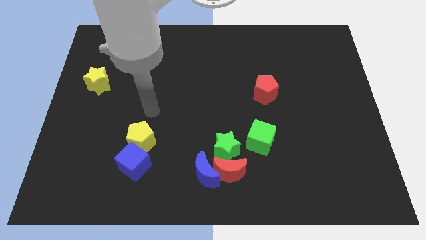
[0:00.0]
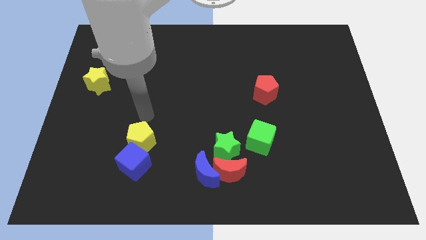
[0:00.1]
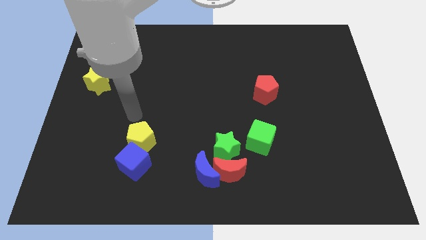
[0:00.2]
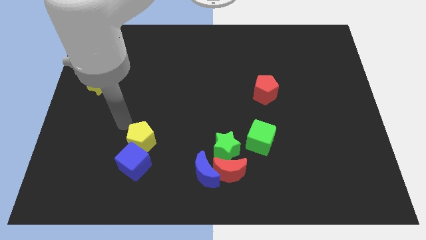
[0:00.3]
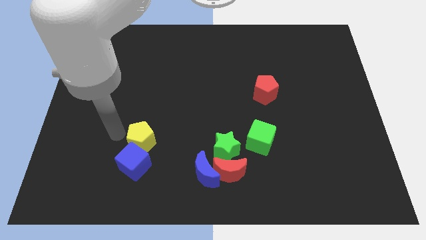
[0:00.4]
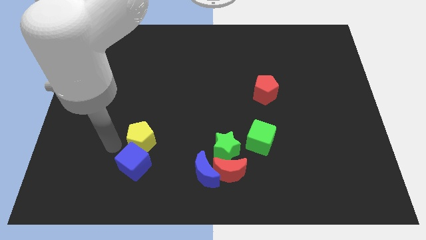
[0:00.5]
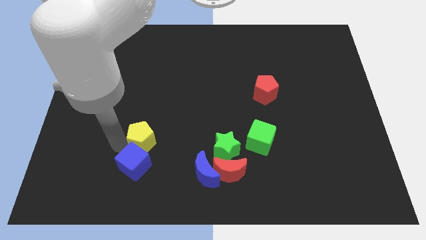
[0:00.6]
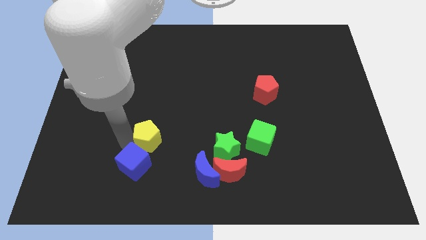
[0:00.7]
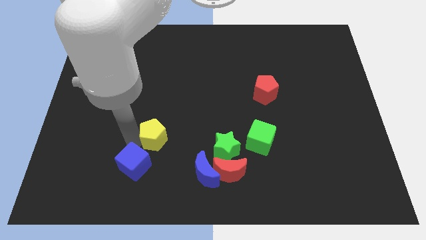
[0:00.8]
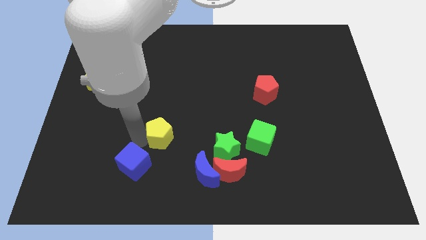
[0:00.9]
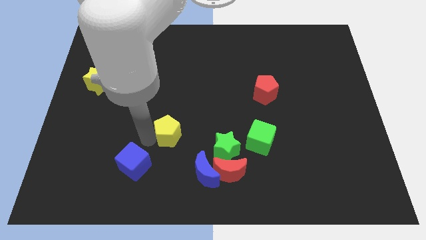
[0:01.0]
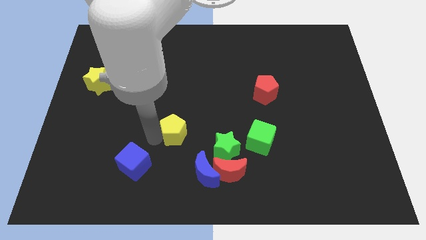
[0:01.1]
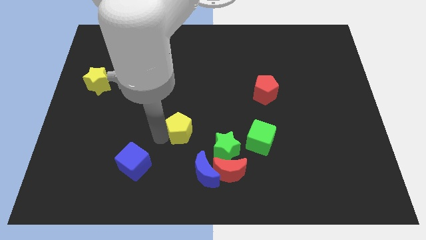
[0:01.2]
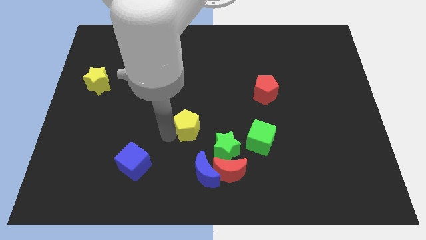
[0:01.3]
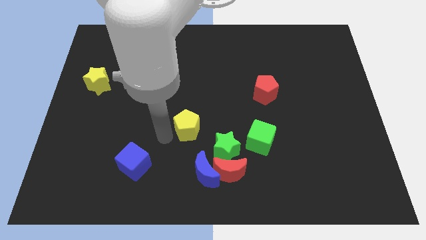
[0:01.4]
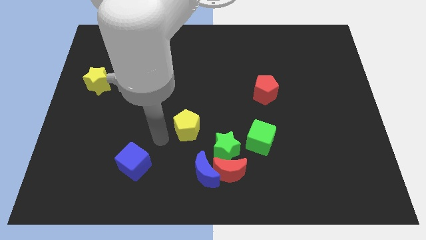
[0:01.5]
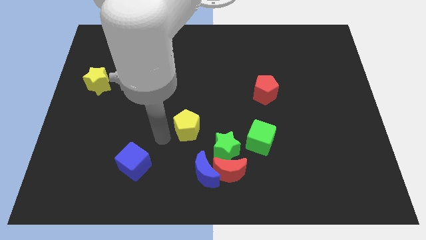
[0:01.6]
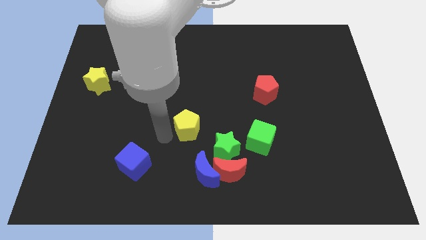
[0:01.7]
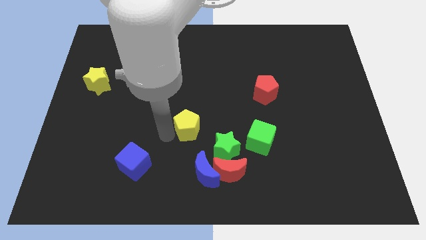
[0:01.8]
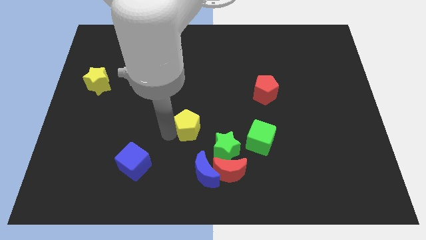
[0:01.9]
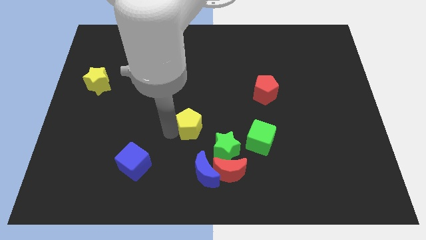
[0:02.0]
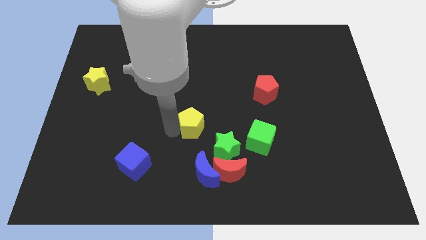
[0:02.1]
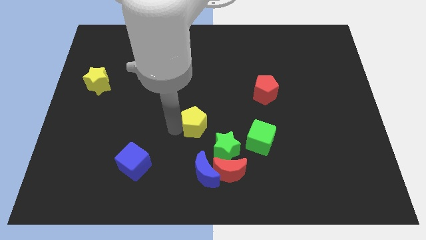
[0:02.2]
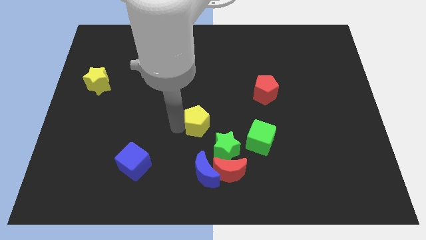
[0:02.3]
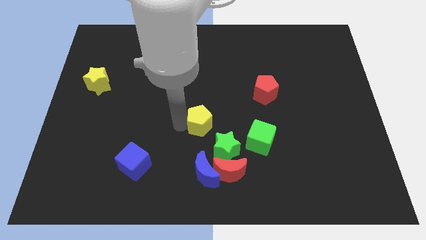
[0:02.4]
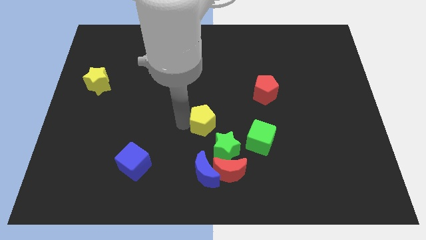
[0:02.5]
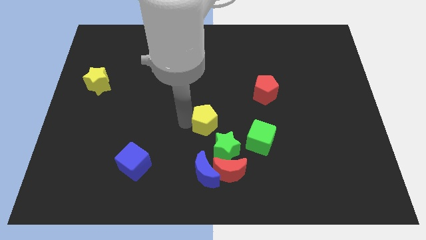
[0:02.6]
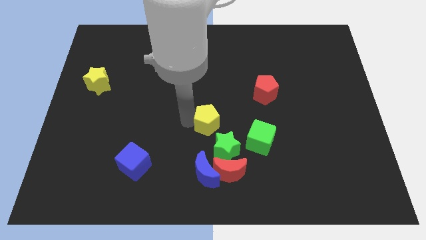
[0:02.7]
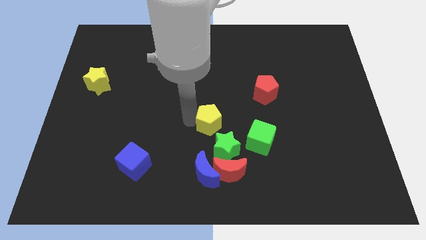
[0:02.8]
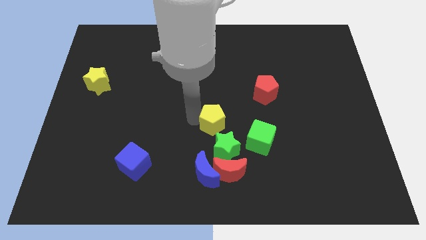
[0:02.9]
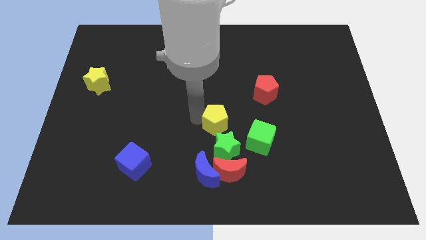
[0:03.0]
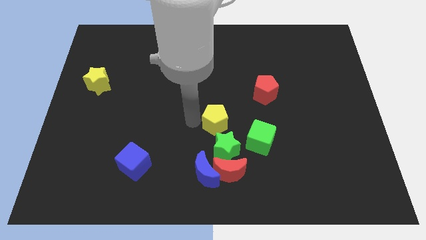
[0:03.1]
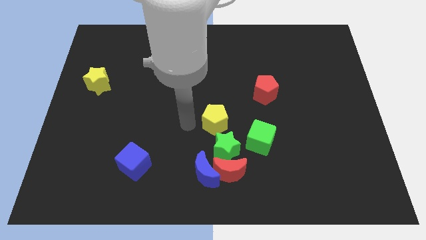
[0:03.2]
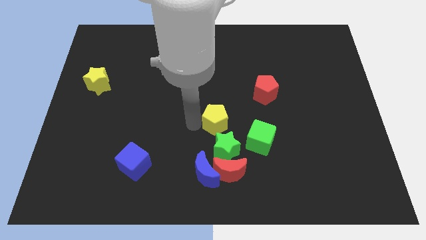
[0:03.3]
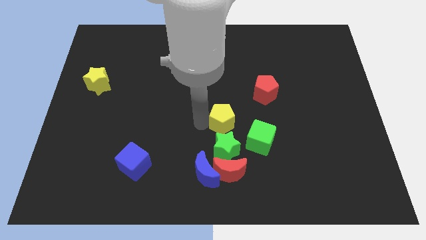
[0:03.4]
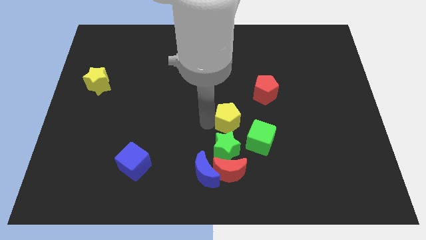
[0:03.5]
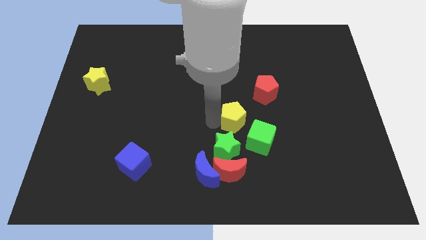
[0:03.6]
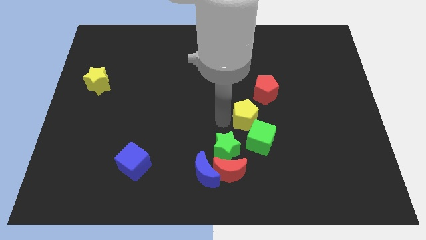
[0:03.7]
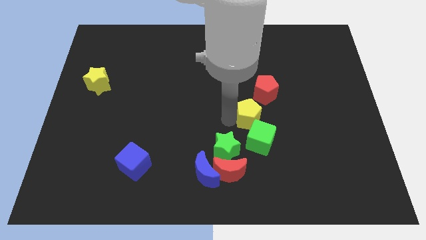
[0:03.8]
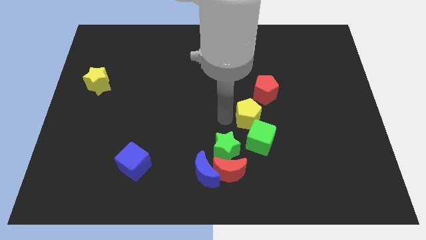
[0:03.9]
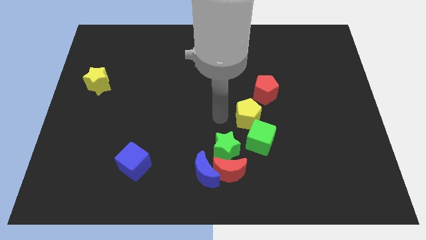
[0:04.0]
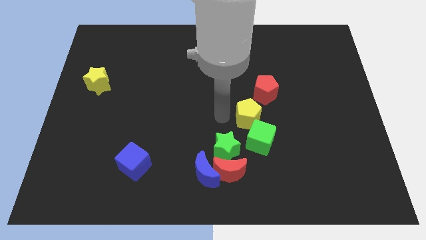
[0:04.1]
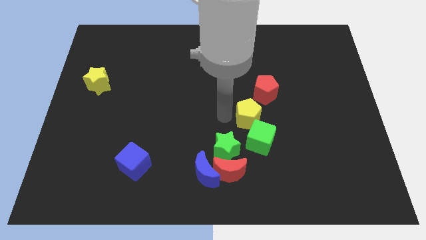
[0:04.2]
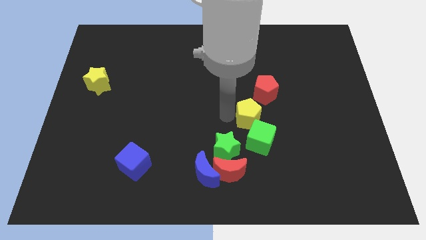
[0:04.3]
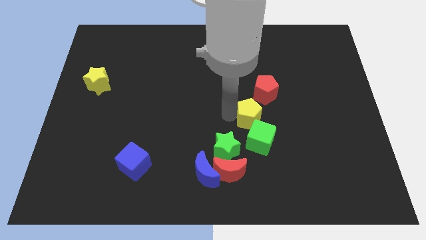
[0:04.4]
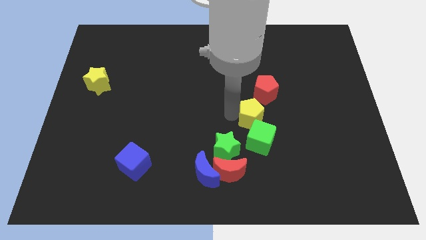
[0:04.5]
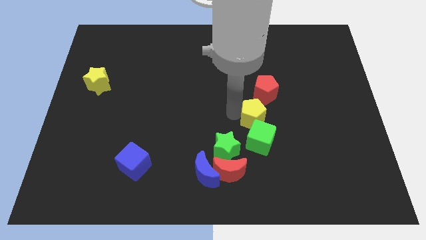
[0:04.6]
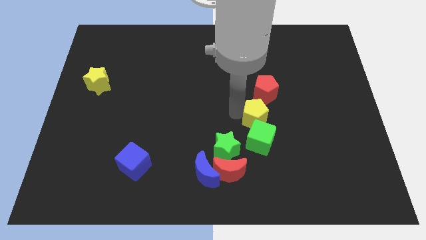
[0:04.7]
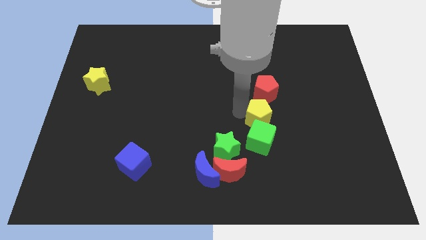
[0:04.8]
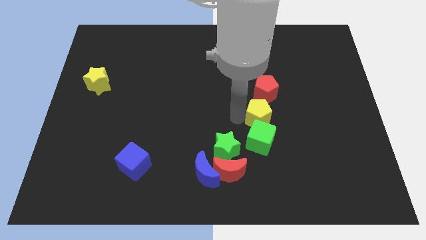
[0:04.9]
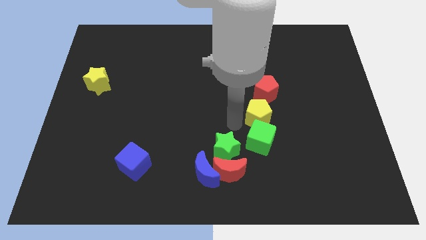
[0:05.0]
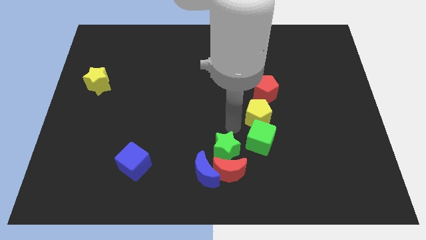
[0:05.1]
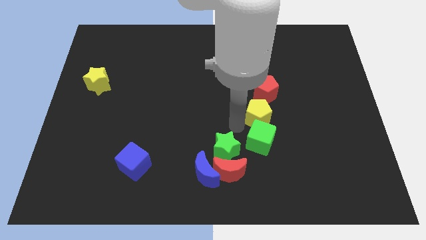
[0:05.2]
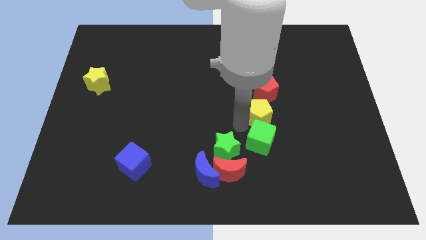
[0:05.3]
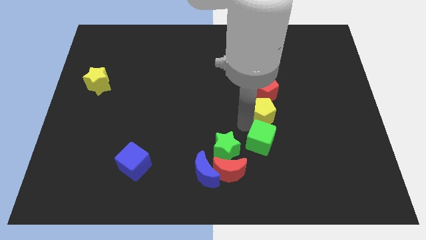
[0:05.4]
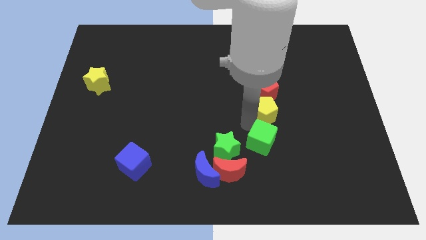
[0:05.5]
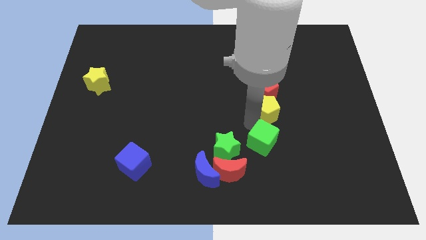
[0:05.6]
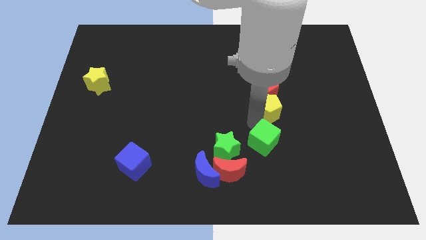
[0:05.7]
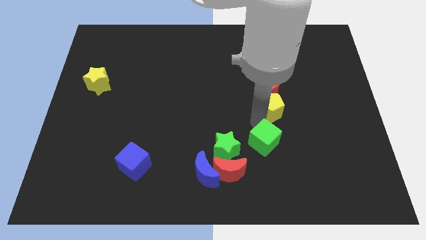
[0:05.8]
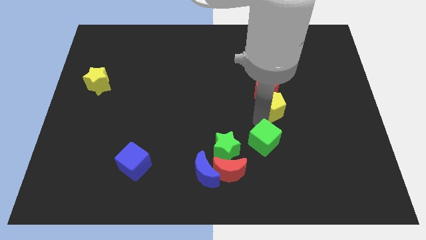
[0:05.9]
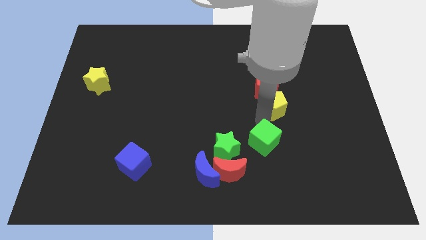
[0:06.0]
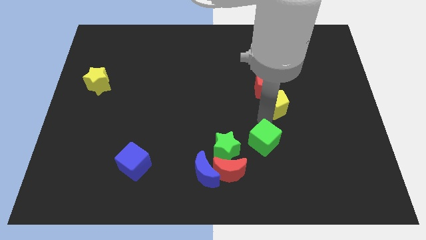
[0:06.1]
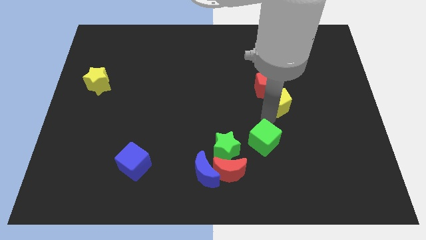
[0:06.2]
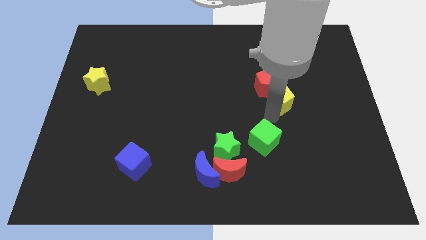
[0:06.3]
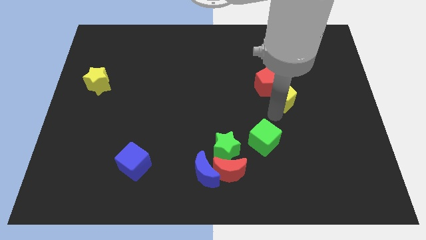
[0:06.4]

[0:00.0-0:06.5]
move the yellow pentagon to the right side of the red pentagon
